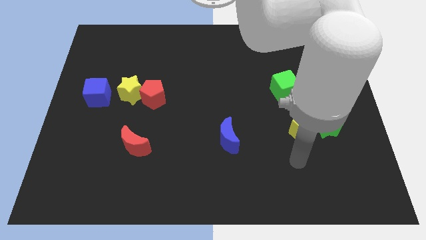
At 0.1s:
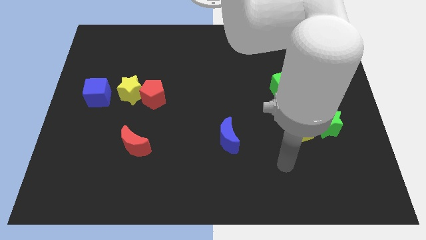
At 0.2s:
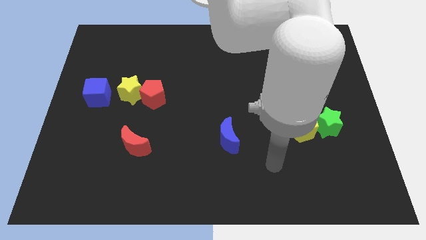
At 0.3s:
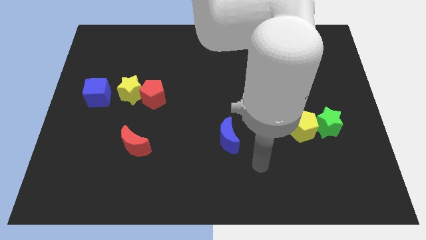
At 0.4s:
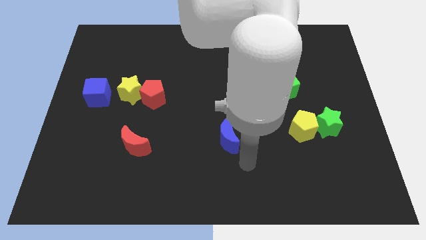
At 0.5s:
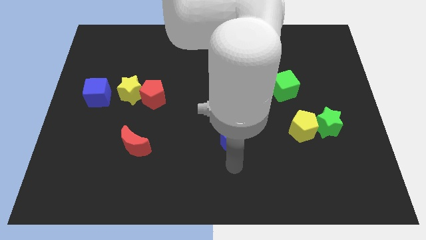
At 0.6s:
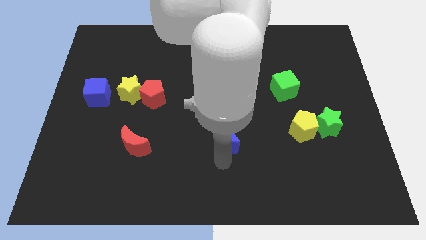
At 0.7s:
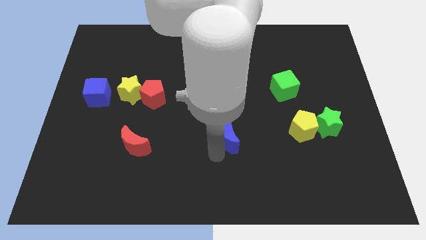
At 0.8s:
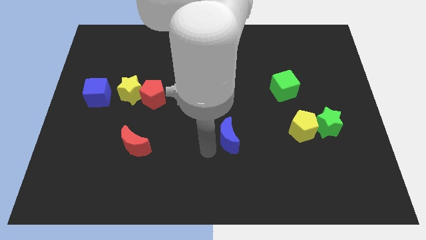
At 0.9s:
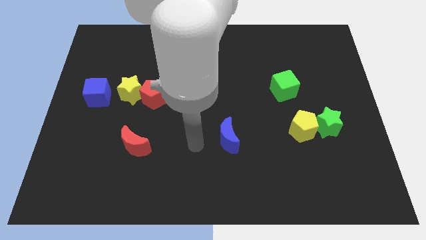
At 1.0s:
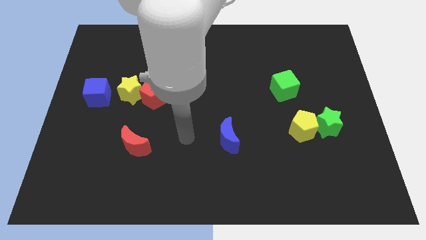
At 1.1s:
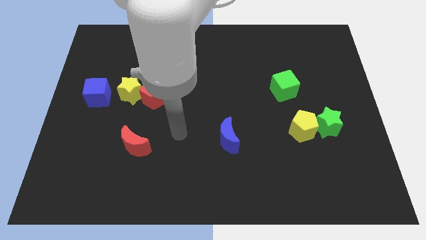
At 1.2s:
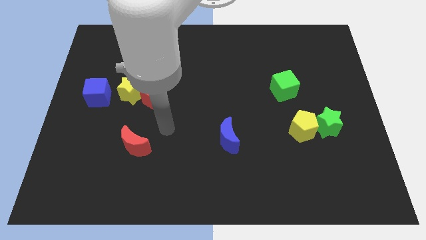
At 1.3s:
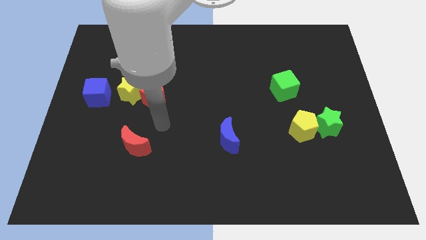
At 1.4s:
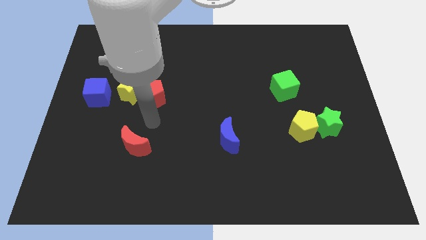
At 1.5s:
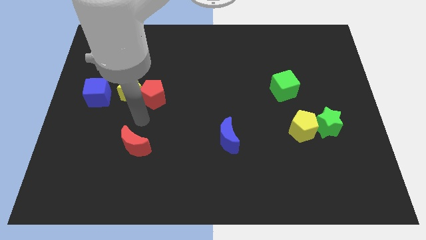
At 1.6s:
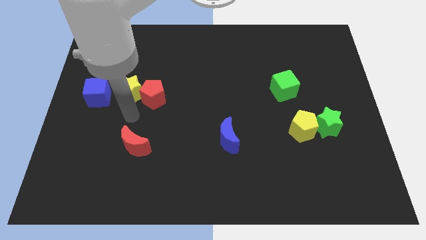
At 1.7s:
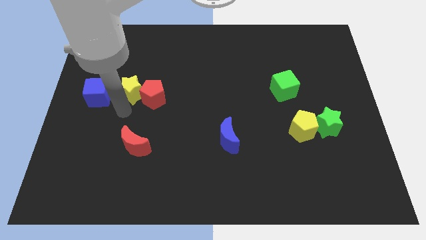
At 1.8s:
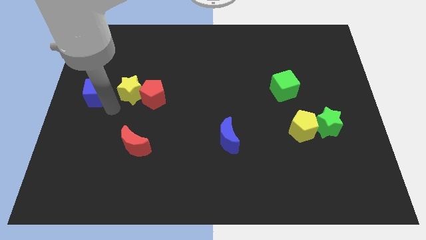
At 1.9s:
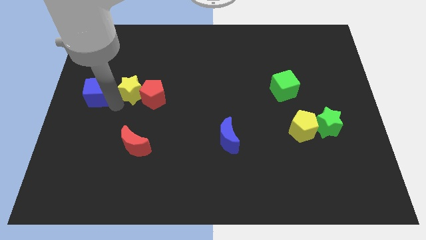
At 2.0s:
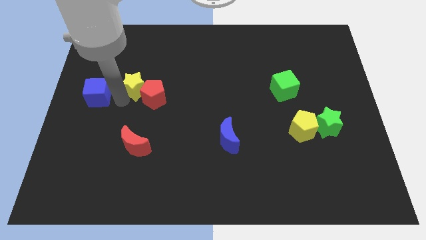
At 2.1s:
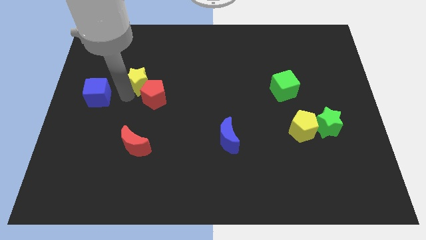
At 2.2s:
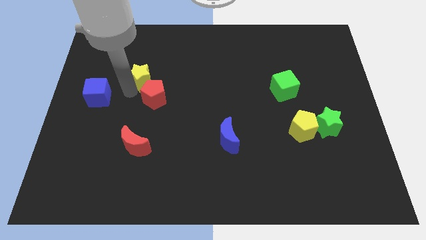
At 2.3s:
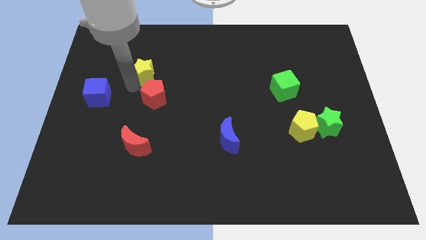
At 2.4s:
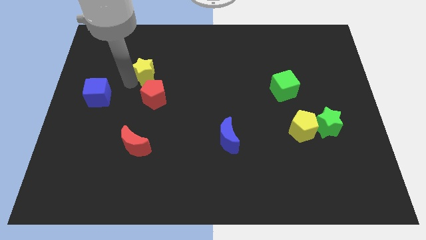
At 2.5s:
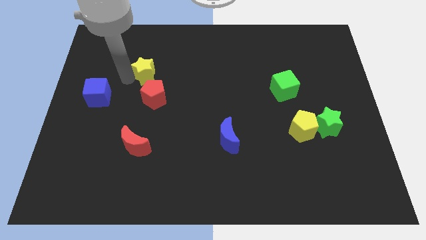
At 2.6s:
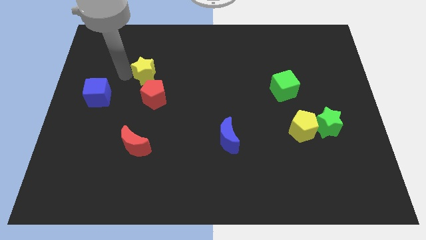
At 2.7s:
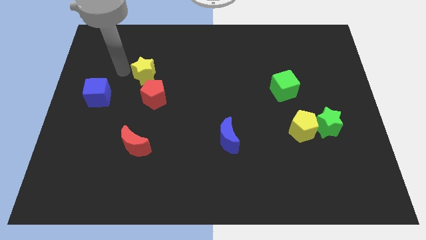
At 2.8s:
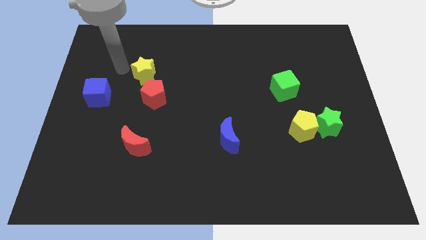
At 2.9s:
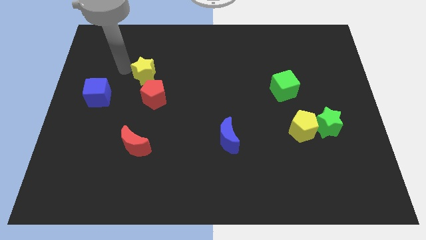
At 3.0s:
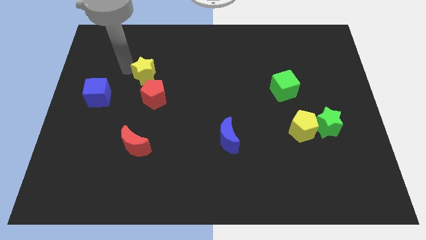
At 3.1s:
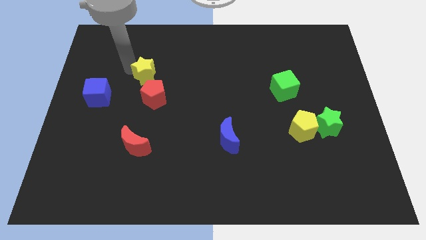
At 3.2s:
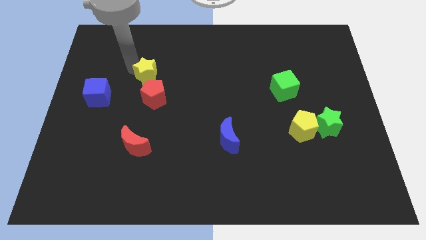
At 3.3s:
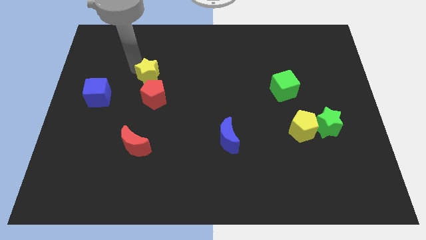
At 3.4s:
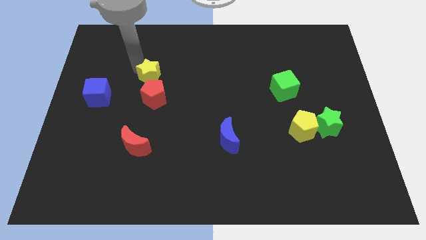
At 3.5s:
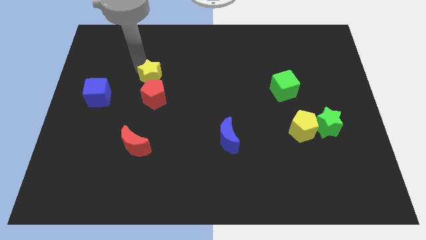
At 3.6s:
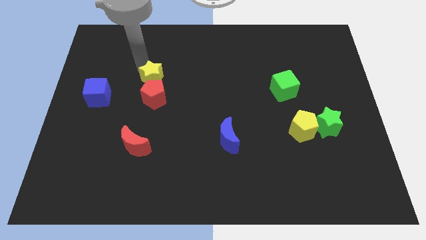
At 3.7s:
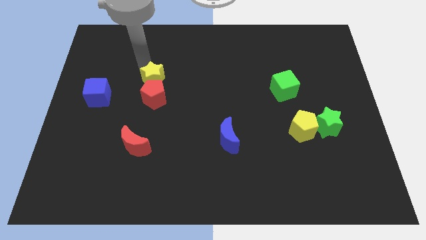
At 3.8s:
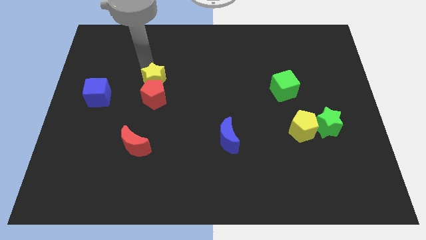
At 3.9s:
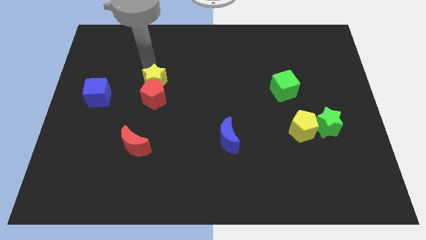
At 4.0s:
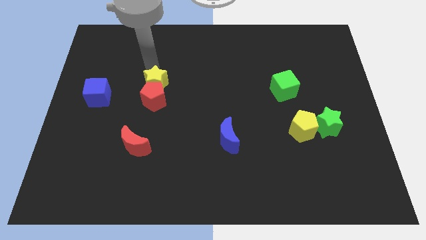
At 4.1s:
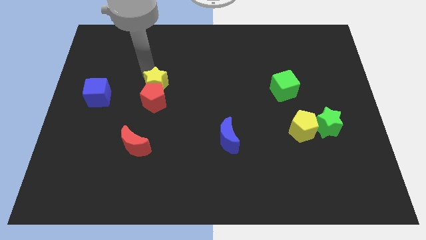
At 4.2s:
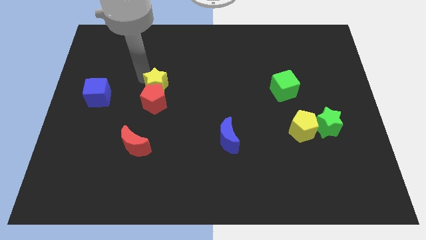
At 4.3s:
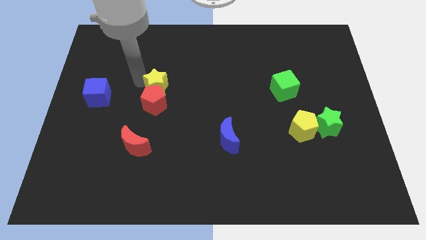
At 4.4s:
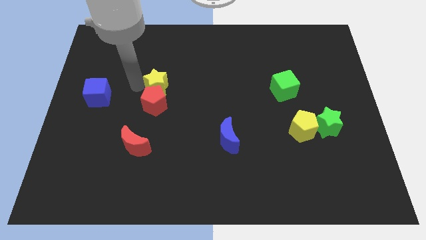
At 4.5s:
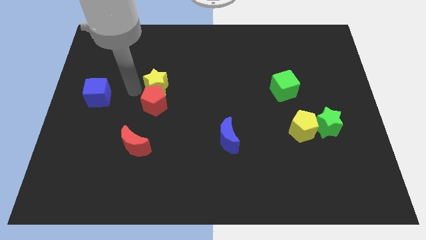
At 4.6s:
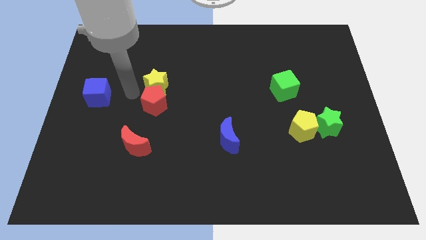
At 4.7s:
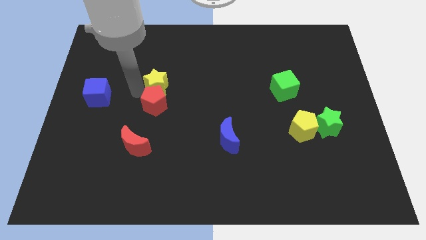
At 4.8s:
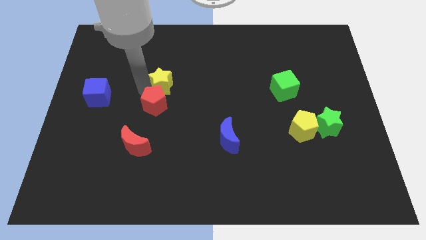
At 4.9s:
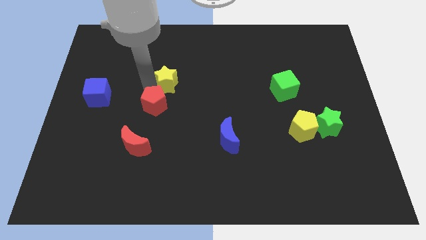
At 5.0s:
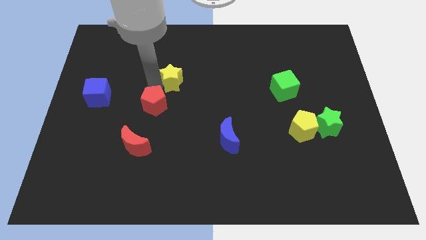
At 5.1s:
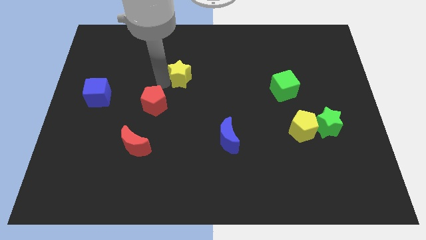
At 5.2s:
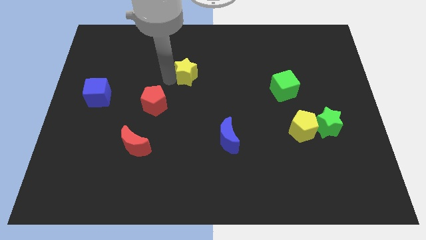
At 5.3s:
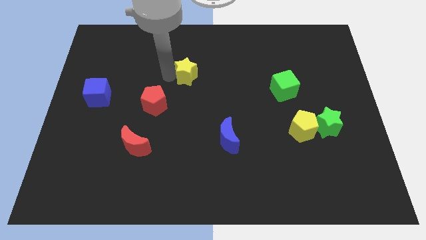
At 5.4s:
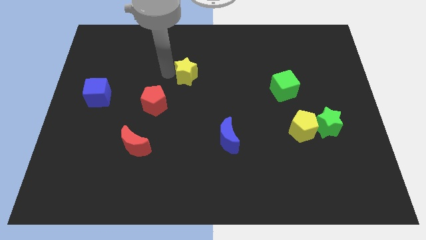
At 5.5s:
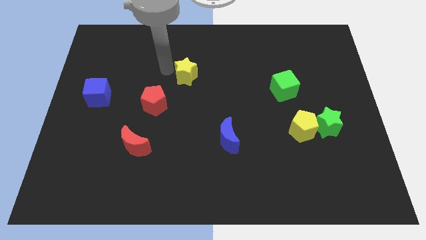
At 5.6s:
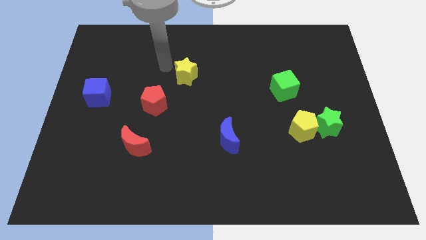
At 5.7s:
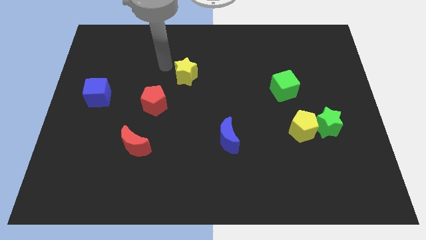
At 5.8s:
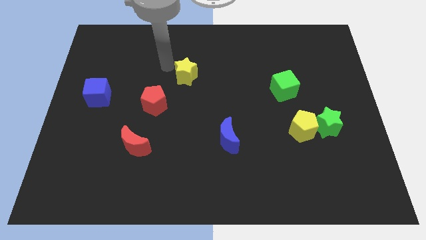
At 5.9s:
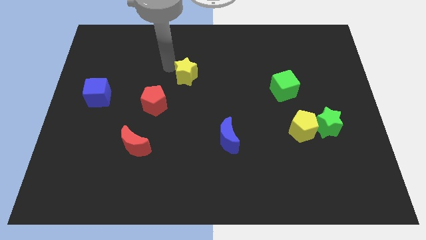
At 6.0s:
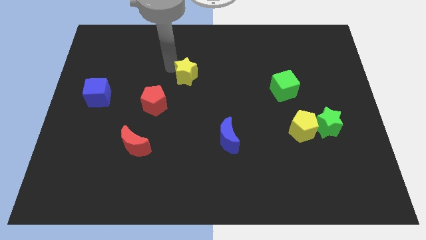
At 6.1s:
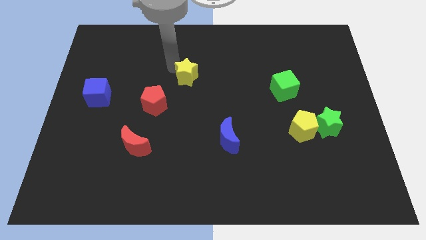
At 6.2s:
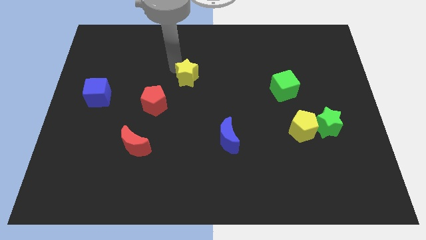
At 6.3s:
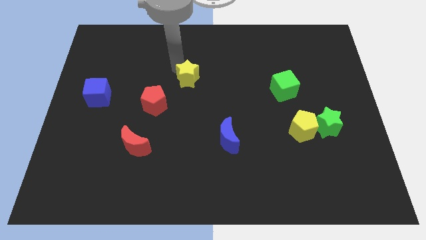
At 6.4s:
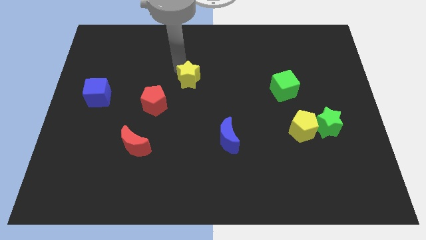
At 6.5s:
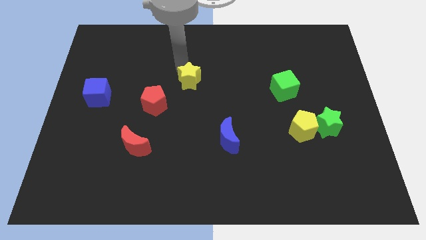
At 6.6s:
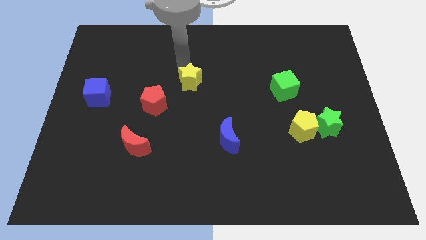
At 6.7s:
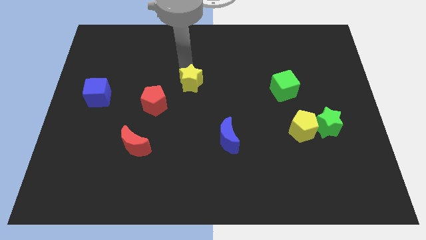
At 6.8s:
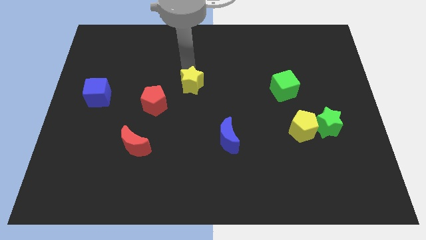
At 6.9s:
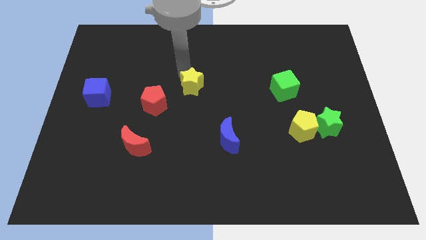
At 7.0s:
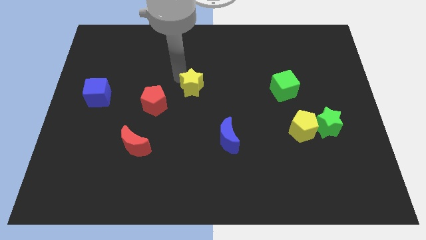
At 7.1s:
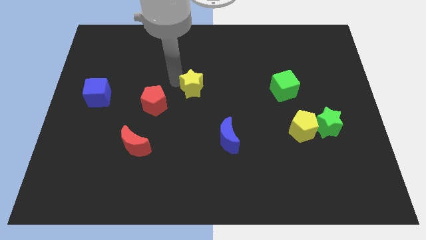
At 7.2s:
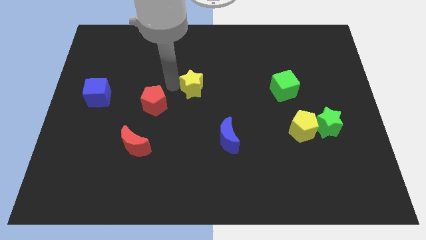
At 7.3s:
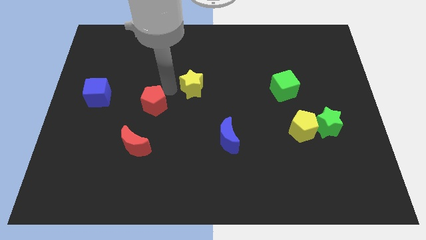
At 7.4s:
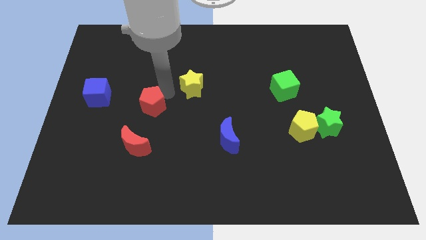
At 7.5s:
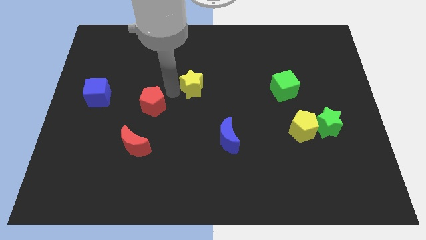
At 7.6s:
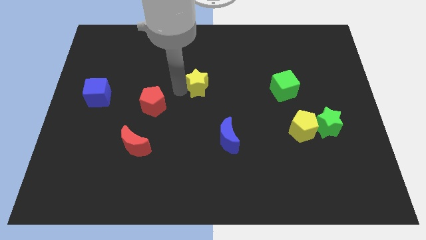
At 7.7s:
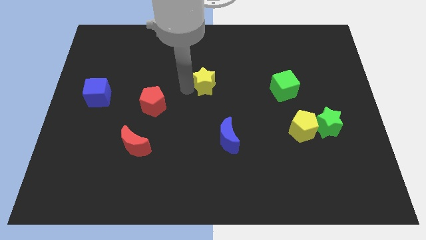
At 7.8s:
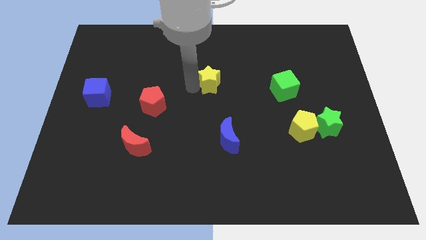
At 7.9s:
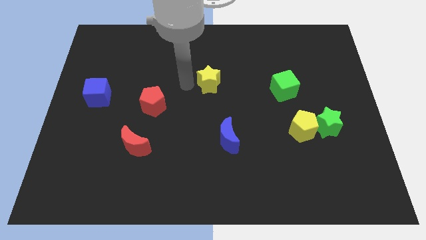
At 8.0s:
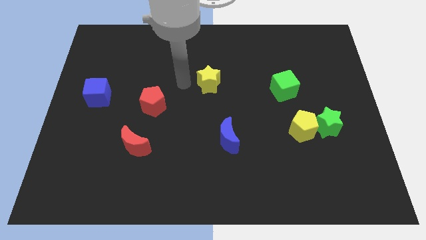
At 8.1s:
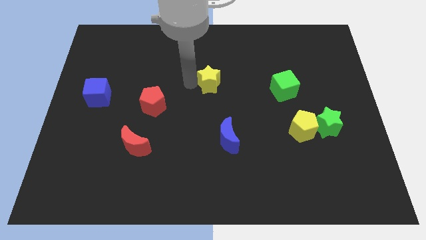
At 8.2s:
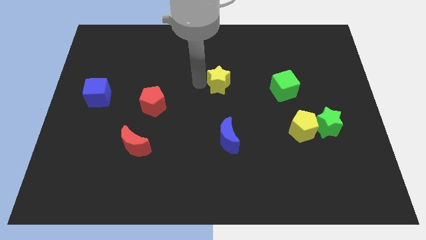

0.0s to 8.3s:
move the yellow star to the right

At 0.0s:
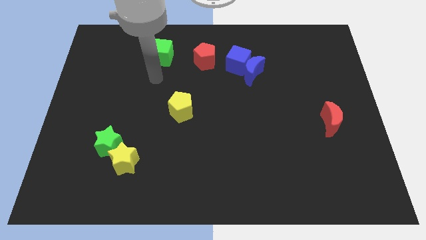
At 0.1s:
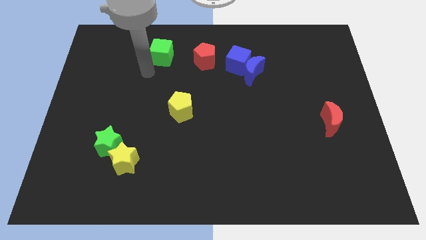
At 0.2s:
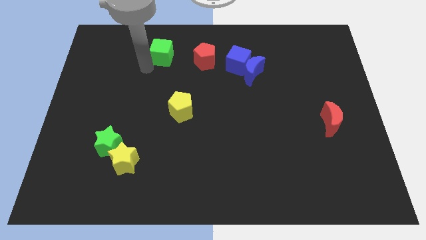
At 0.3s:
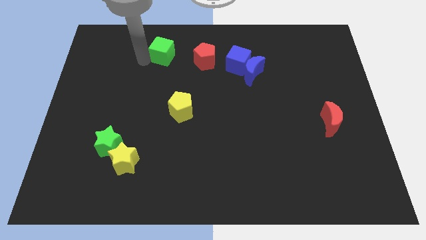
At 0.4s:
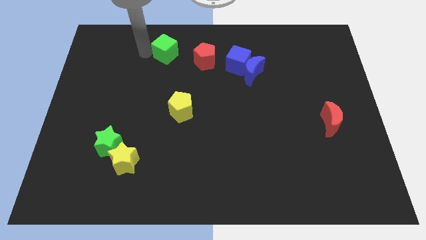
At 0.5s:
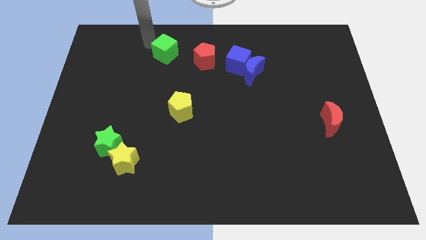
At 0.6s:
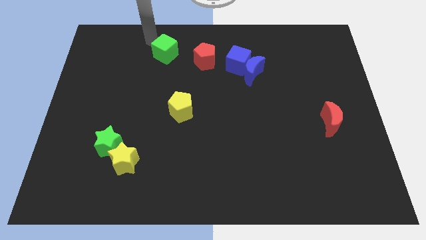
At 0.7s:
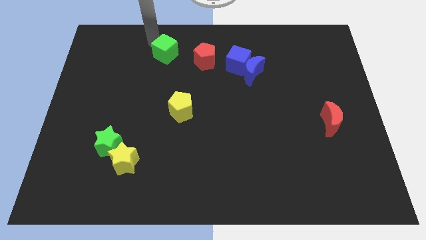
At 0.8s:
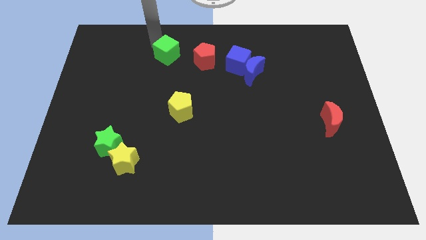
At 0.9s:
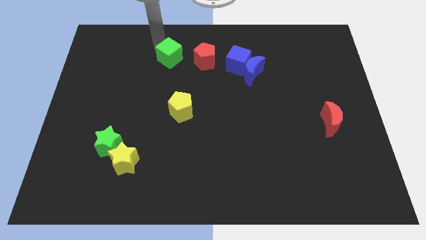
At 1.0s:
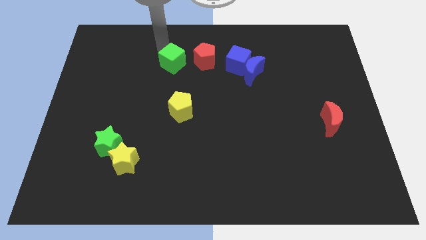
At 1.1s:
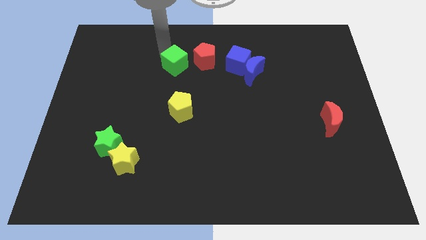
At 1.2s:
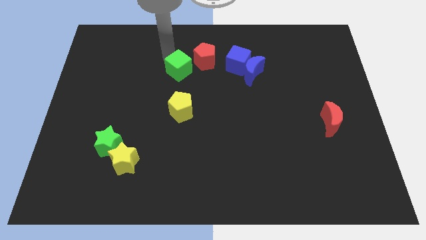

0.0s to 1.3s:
push the green cube a bit down and to the right diagonally
